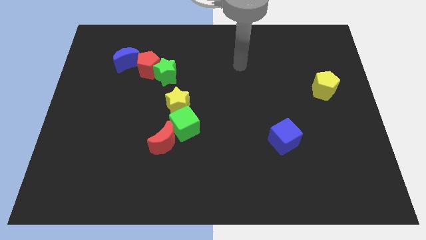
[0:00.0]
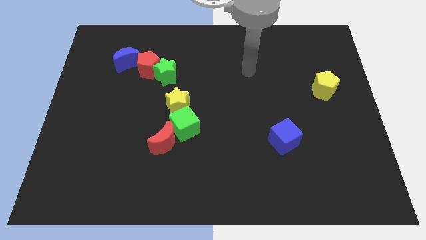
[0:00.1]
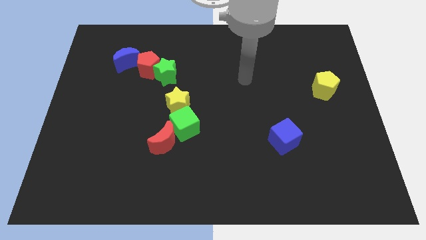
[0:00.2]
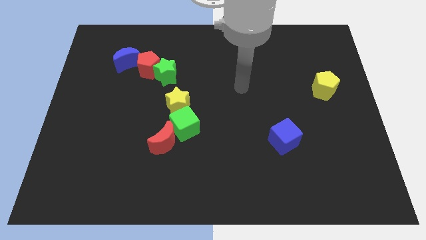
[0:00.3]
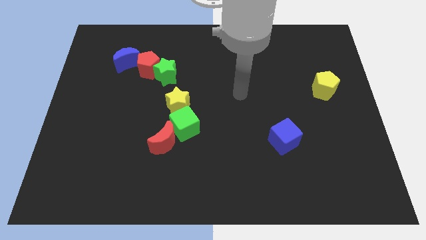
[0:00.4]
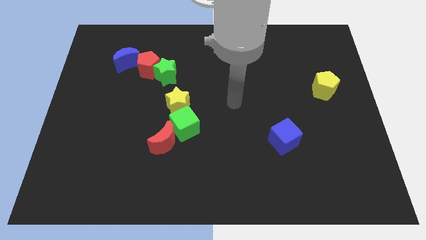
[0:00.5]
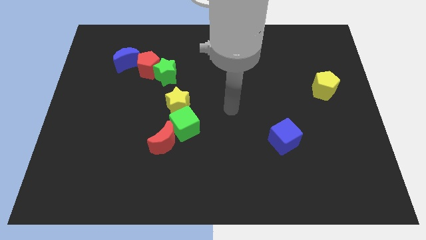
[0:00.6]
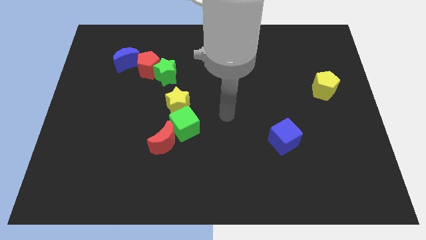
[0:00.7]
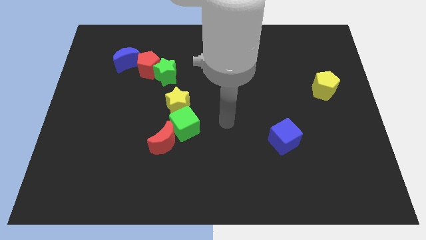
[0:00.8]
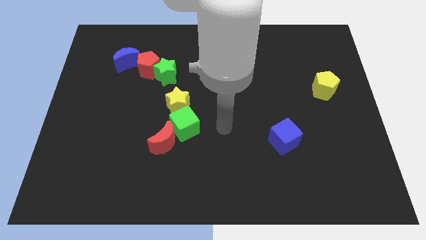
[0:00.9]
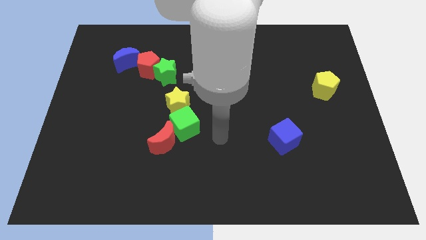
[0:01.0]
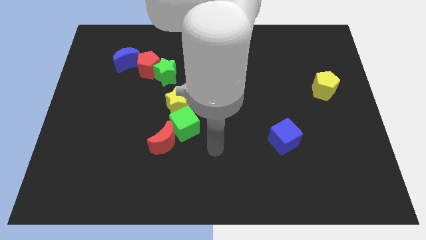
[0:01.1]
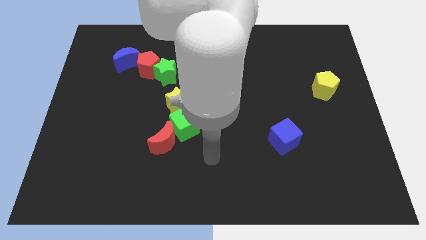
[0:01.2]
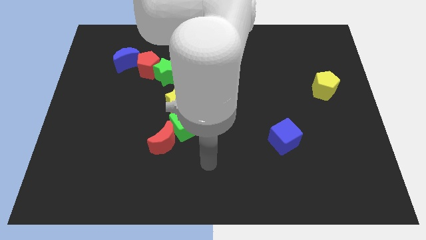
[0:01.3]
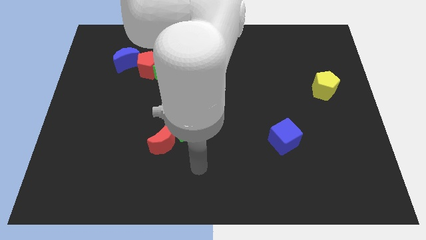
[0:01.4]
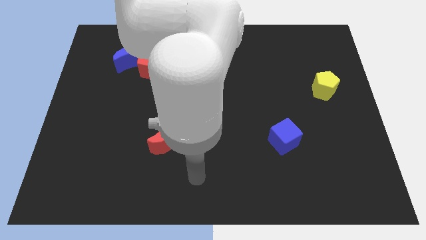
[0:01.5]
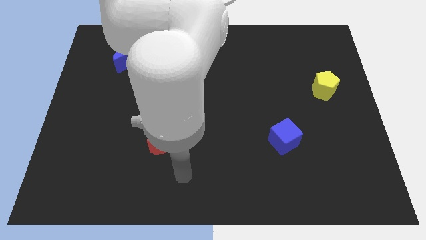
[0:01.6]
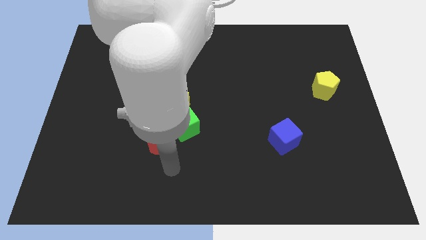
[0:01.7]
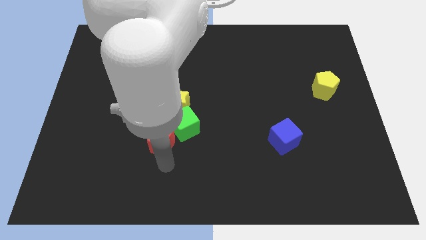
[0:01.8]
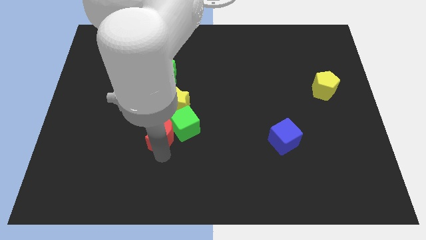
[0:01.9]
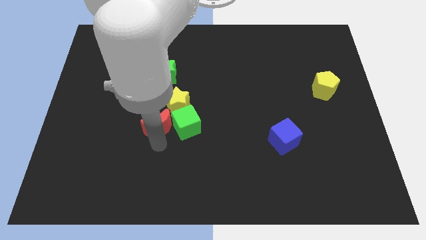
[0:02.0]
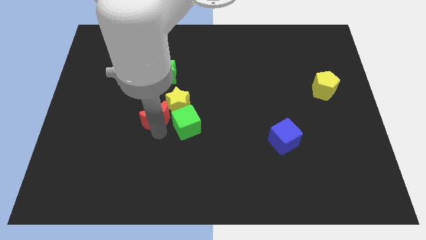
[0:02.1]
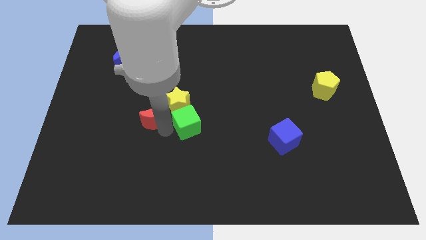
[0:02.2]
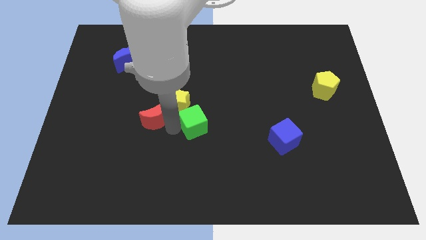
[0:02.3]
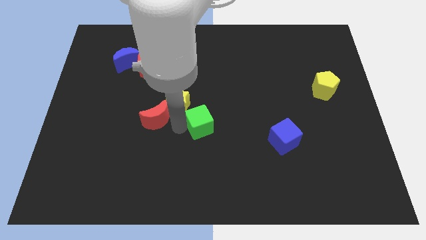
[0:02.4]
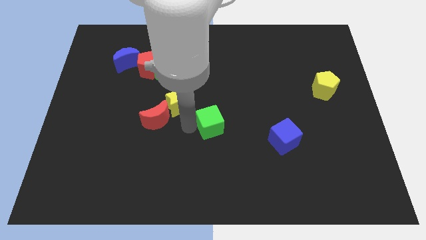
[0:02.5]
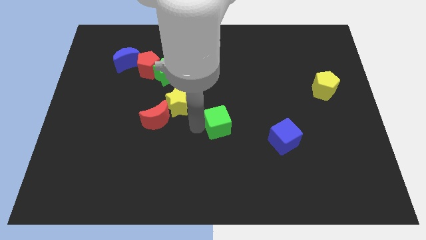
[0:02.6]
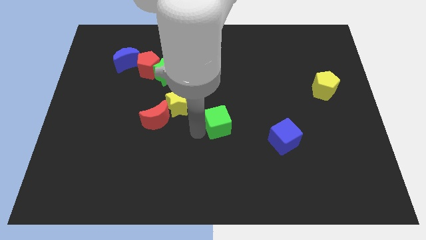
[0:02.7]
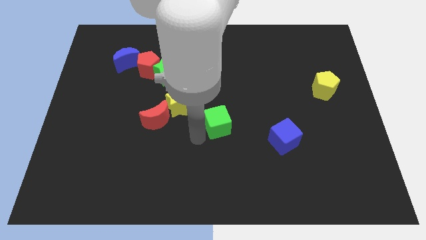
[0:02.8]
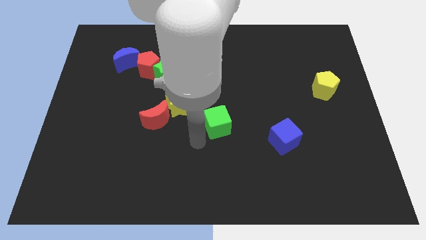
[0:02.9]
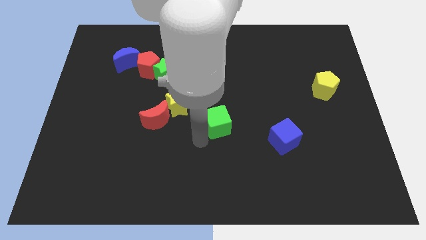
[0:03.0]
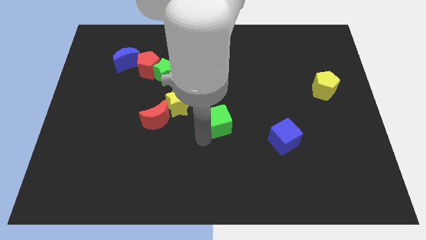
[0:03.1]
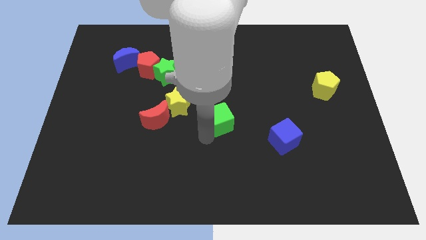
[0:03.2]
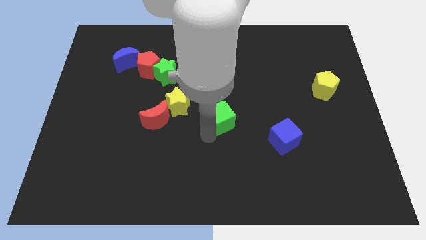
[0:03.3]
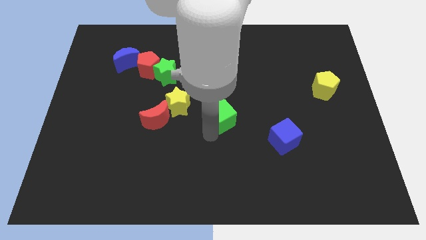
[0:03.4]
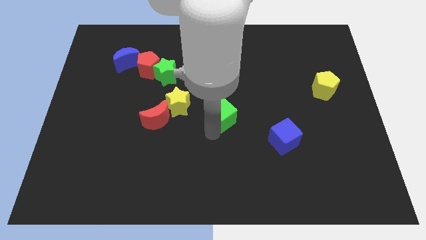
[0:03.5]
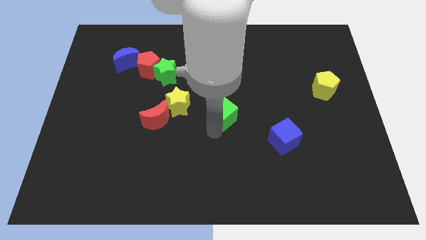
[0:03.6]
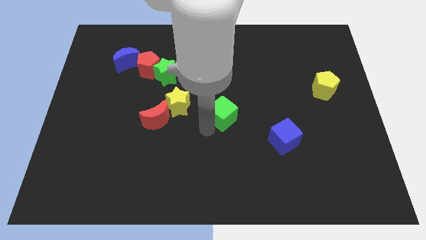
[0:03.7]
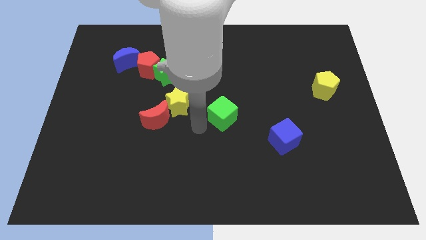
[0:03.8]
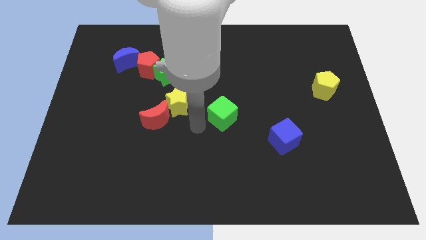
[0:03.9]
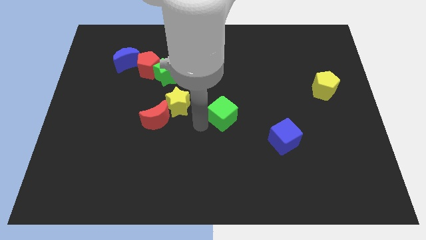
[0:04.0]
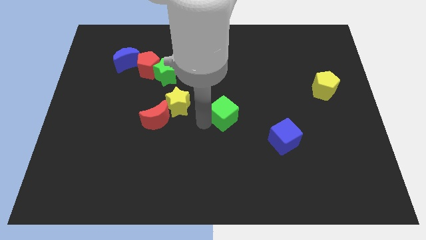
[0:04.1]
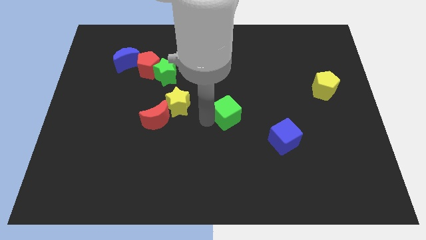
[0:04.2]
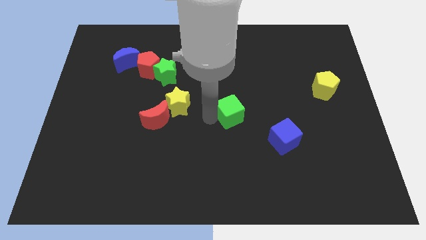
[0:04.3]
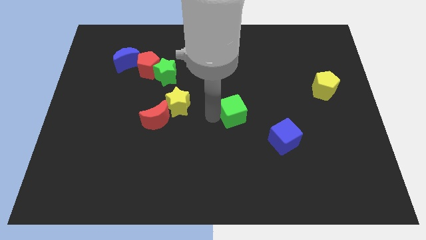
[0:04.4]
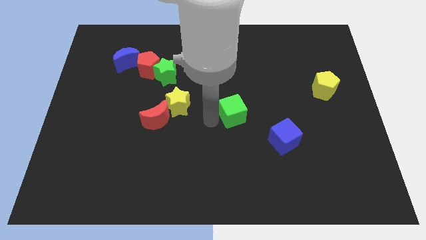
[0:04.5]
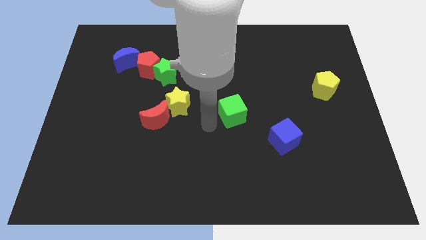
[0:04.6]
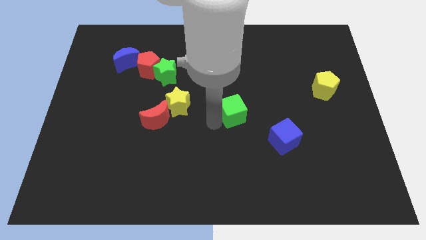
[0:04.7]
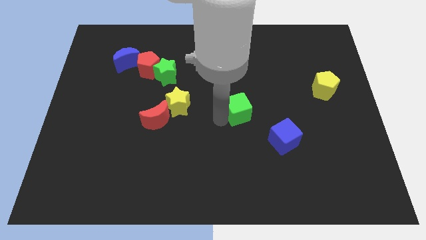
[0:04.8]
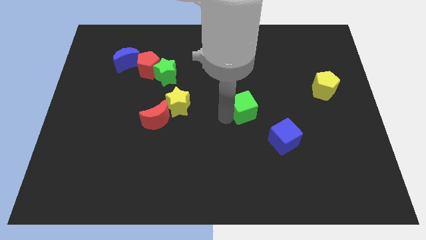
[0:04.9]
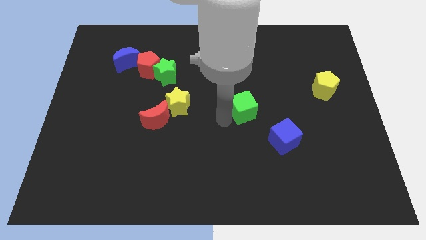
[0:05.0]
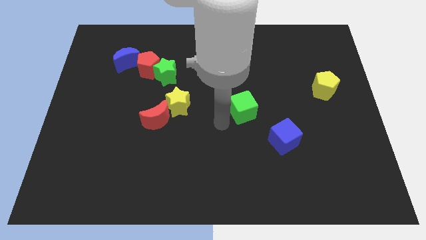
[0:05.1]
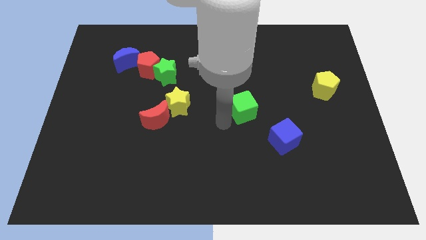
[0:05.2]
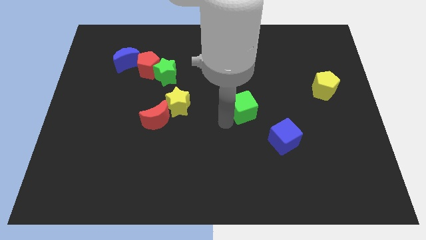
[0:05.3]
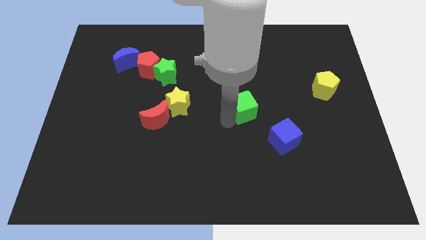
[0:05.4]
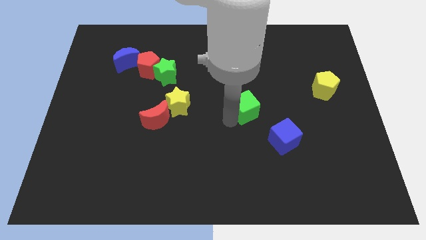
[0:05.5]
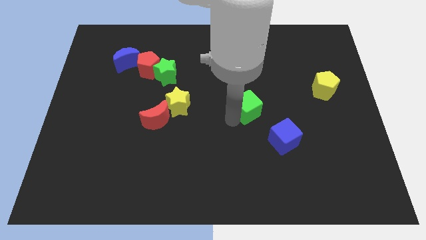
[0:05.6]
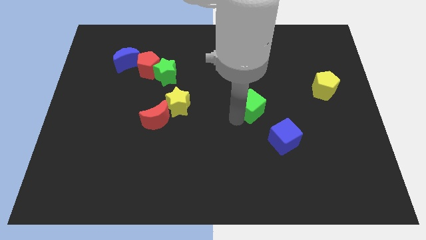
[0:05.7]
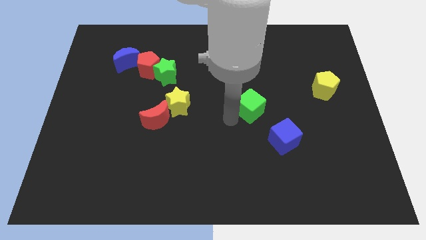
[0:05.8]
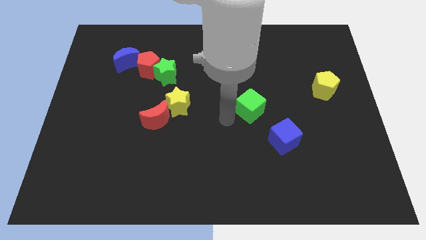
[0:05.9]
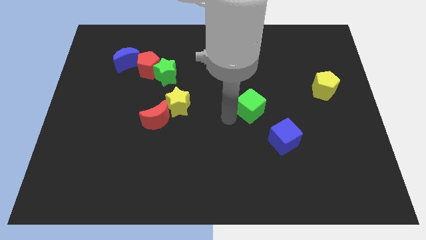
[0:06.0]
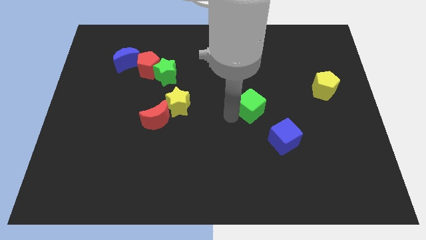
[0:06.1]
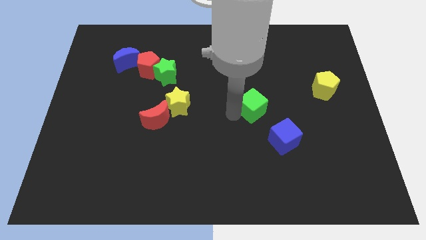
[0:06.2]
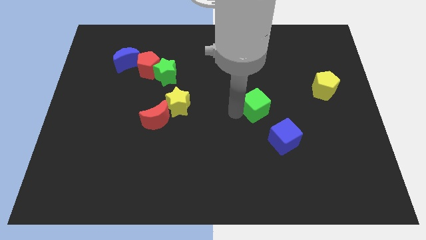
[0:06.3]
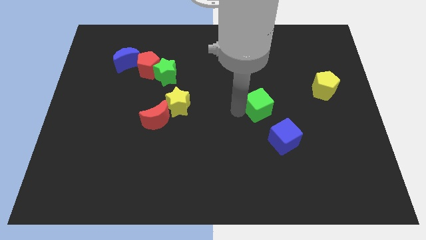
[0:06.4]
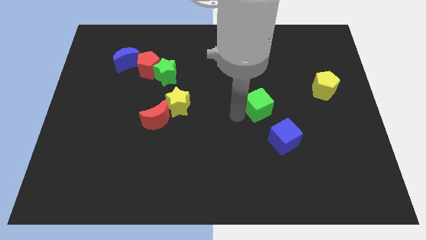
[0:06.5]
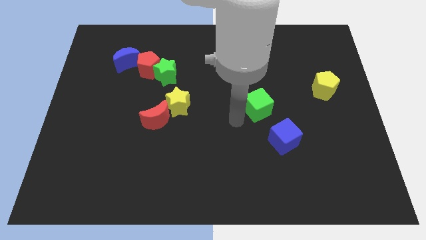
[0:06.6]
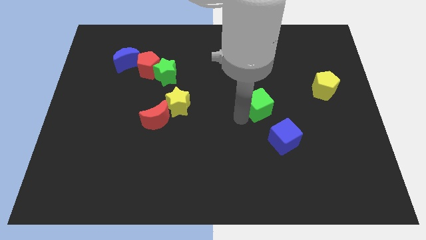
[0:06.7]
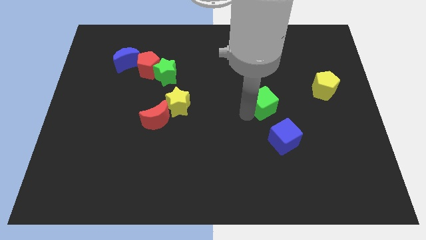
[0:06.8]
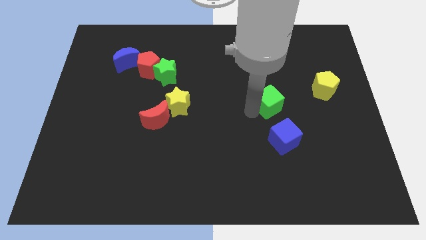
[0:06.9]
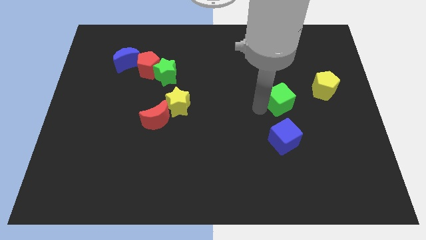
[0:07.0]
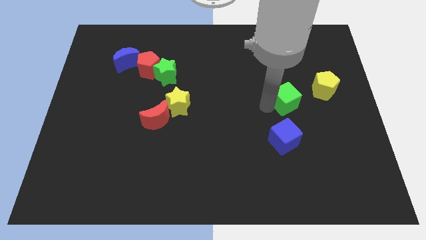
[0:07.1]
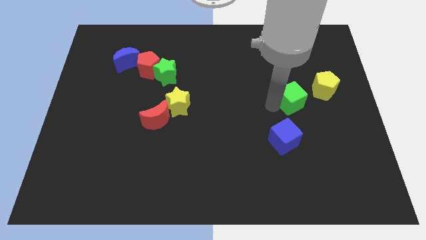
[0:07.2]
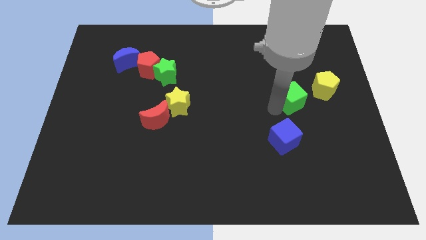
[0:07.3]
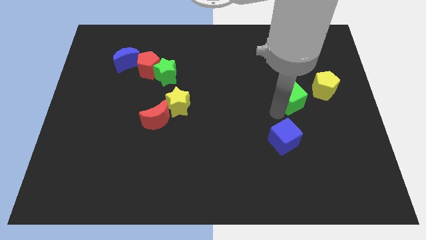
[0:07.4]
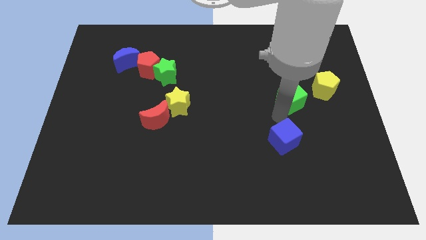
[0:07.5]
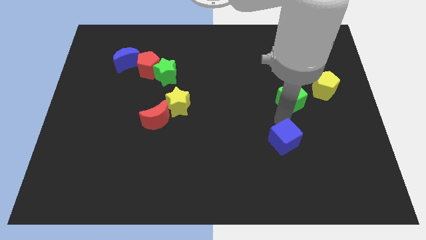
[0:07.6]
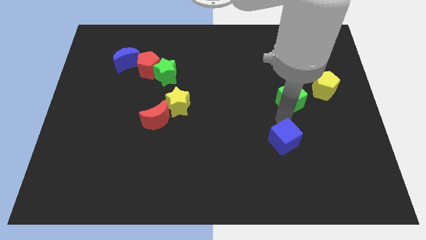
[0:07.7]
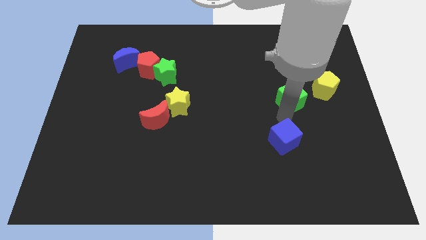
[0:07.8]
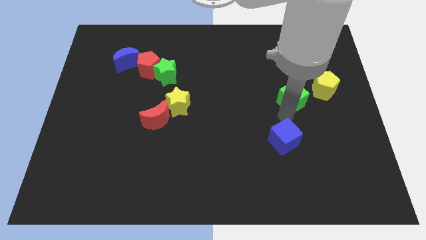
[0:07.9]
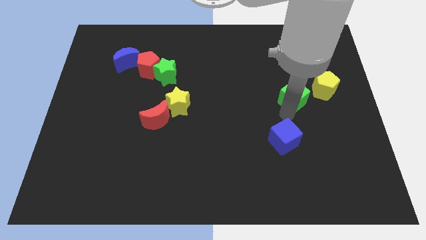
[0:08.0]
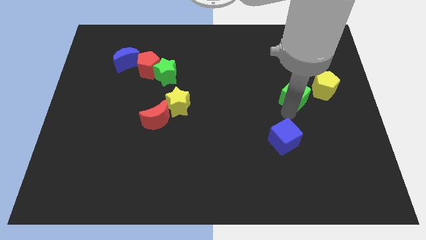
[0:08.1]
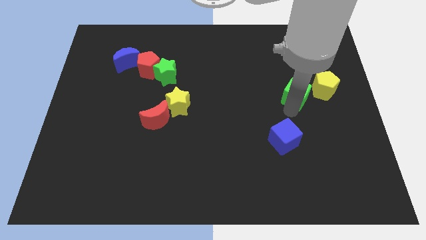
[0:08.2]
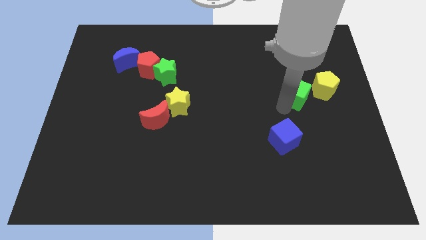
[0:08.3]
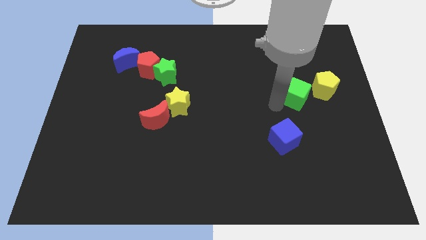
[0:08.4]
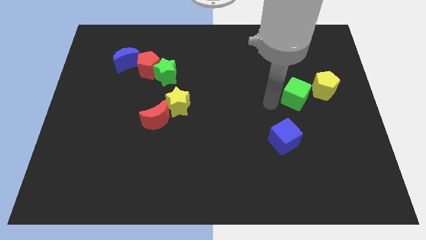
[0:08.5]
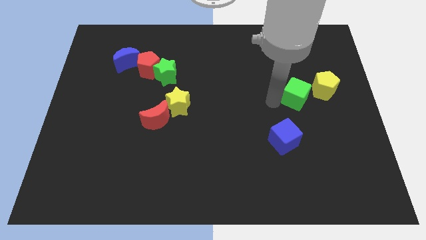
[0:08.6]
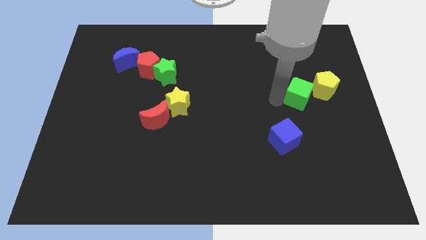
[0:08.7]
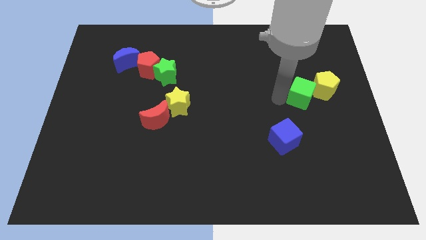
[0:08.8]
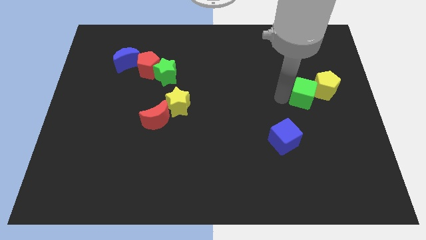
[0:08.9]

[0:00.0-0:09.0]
slide the green cube to the yellow pentagon
